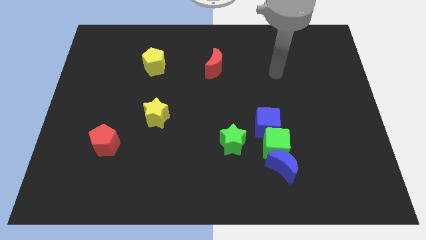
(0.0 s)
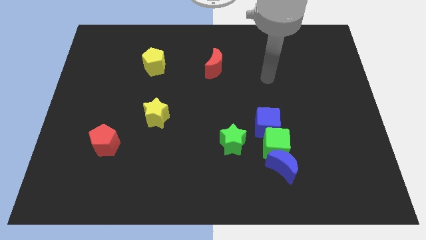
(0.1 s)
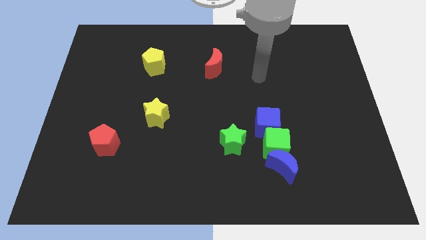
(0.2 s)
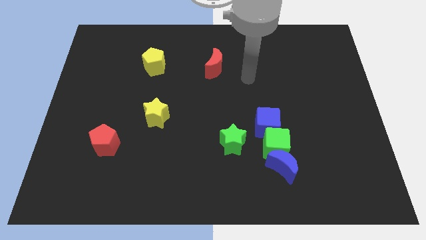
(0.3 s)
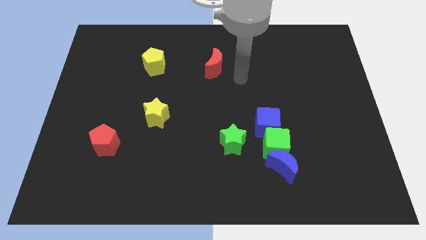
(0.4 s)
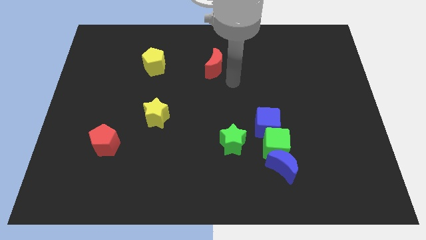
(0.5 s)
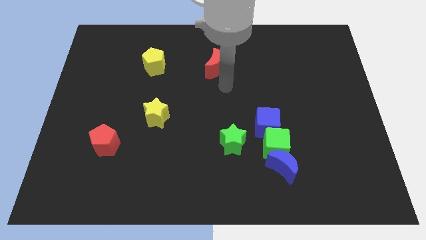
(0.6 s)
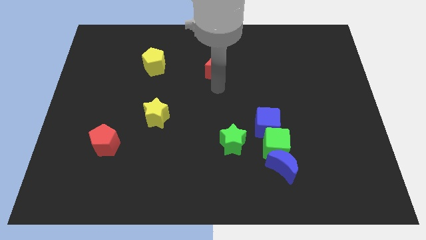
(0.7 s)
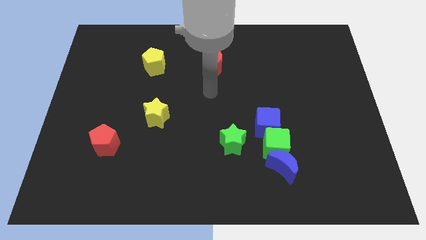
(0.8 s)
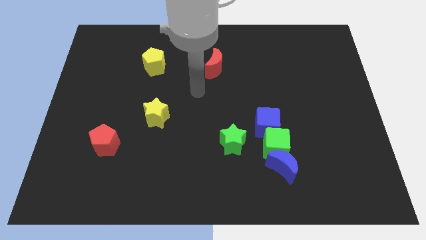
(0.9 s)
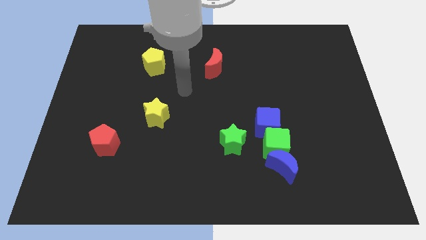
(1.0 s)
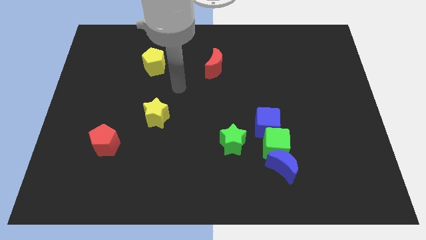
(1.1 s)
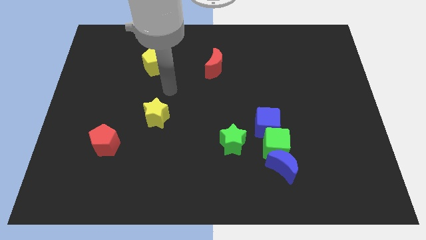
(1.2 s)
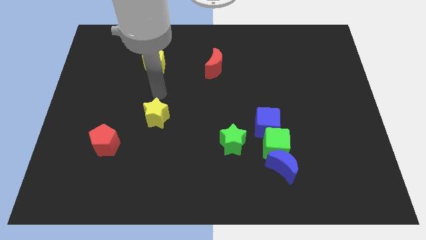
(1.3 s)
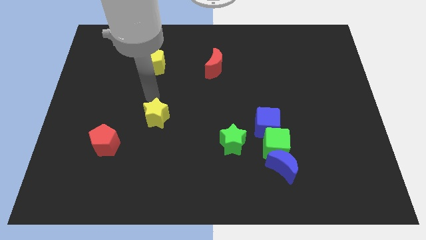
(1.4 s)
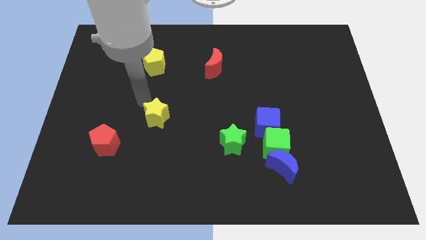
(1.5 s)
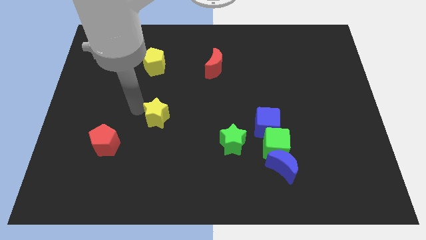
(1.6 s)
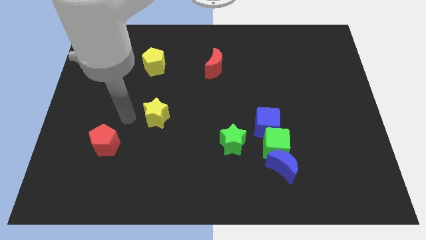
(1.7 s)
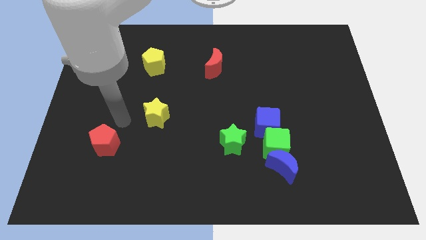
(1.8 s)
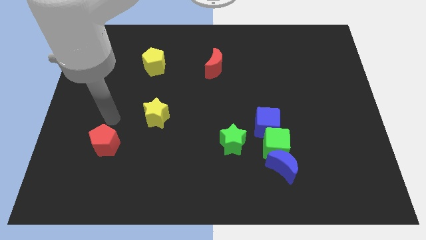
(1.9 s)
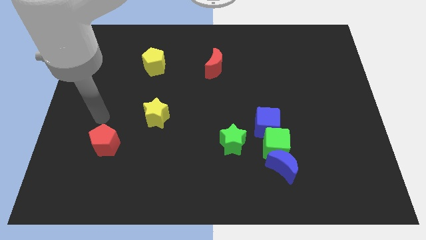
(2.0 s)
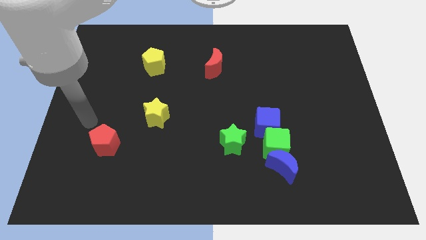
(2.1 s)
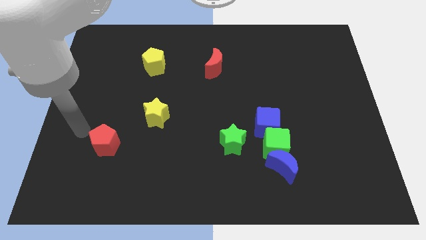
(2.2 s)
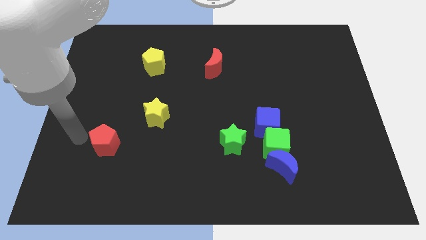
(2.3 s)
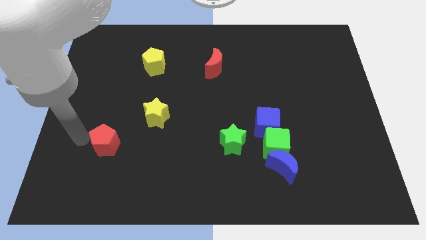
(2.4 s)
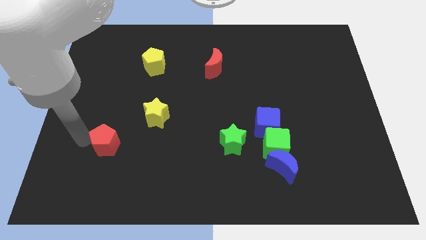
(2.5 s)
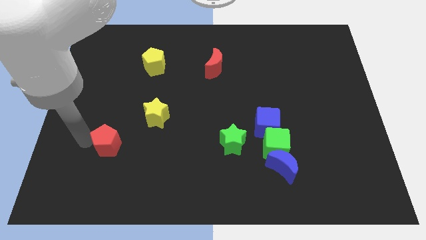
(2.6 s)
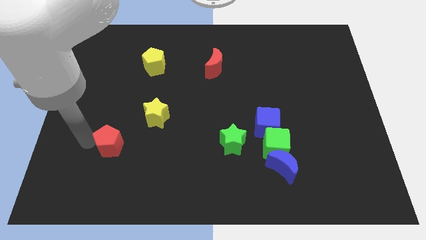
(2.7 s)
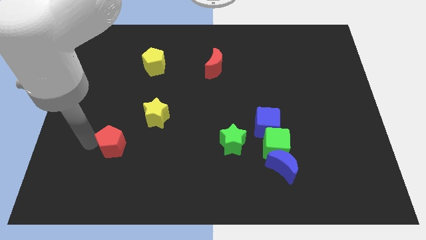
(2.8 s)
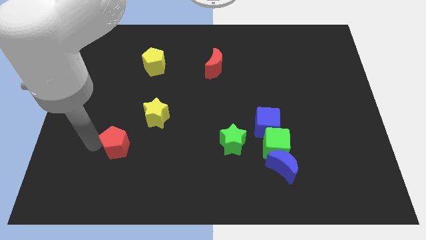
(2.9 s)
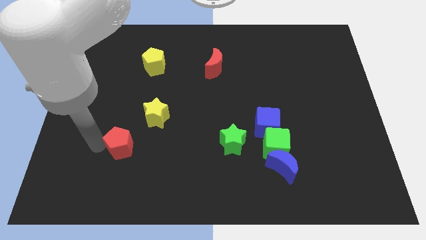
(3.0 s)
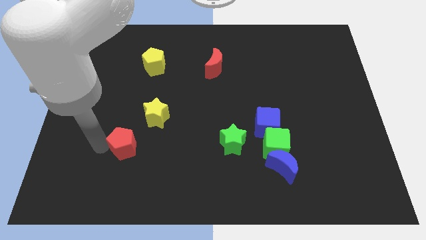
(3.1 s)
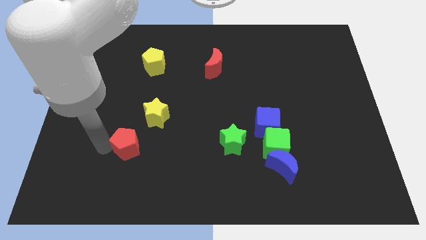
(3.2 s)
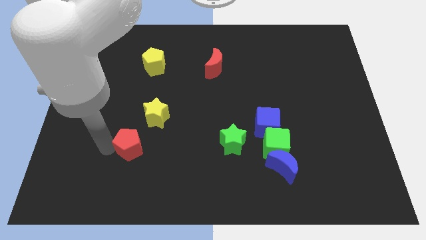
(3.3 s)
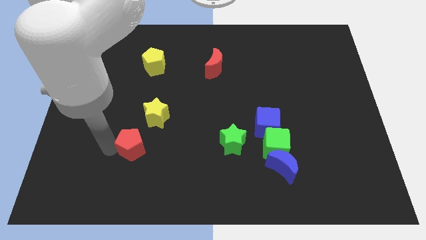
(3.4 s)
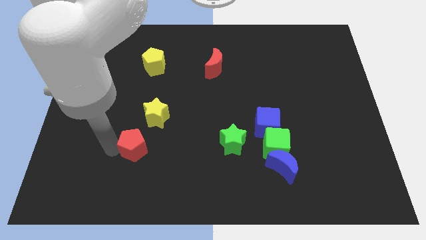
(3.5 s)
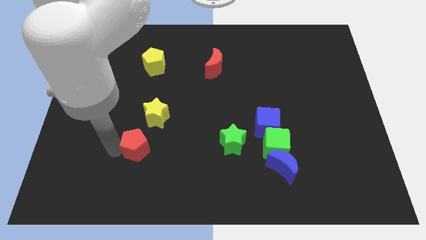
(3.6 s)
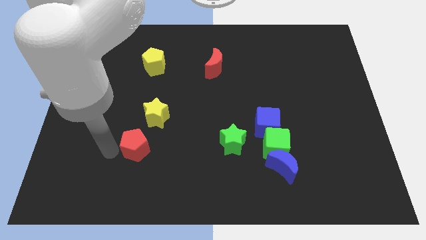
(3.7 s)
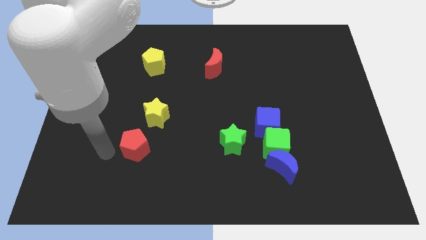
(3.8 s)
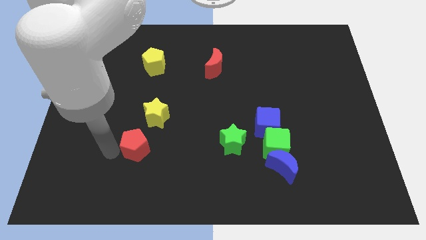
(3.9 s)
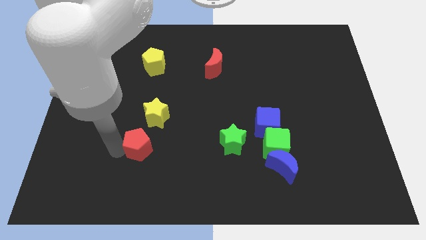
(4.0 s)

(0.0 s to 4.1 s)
slide the red pentagon right a little bit

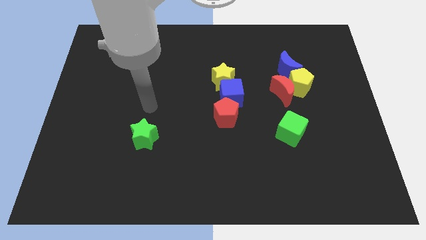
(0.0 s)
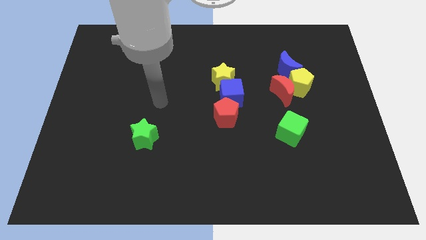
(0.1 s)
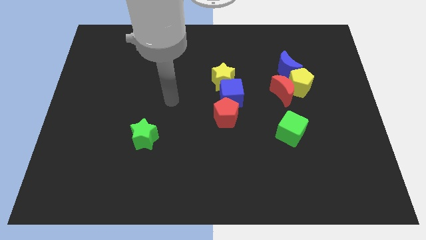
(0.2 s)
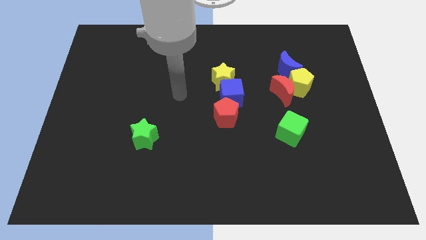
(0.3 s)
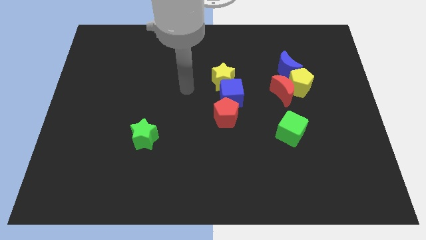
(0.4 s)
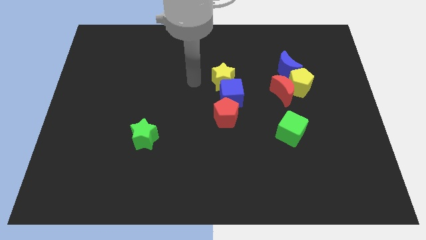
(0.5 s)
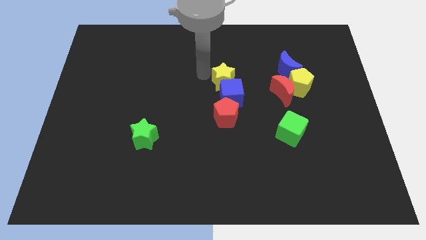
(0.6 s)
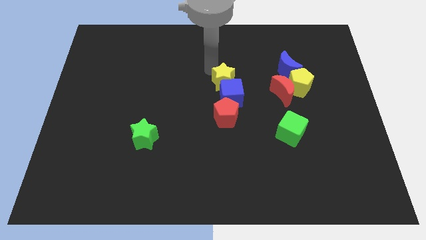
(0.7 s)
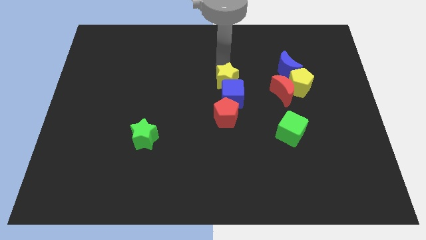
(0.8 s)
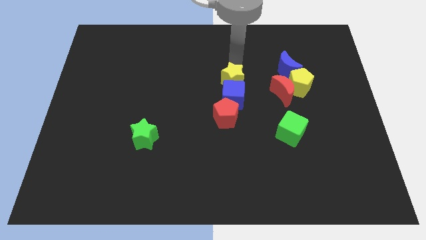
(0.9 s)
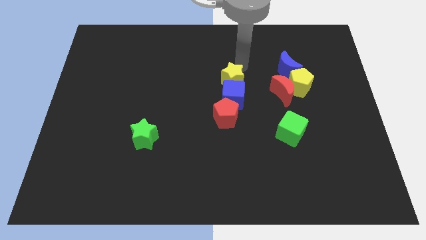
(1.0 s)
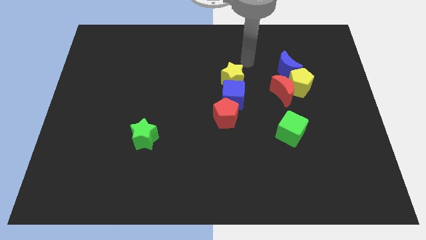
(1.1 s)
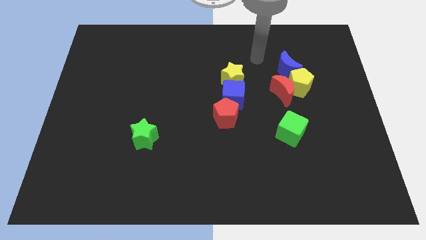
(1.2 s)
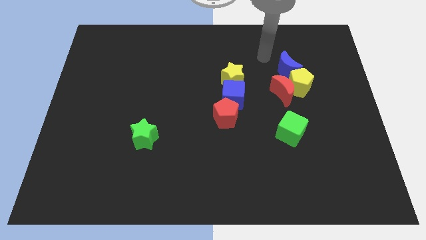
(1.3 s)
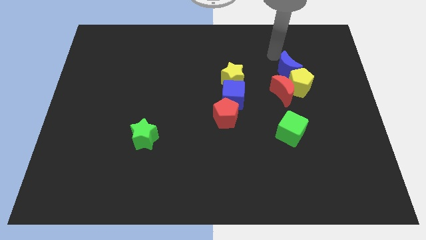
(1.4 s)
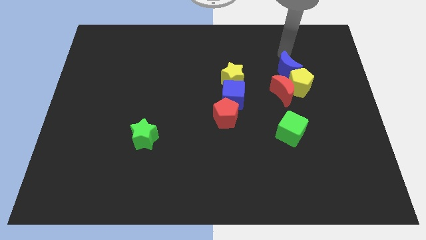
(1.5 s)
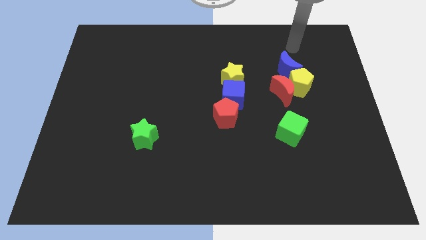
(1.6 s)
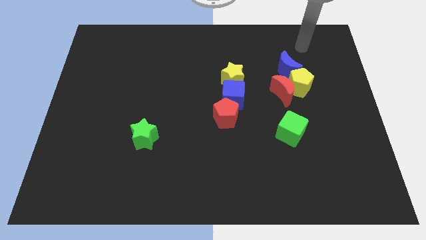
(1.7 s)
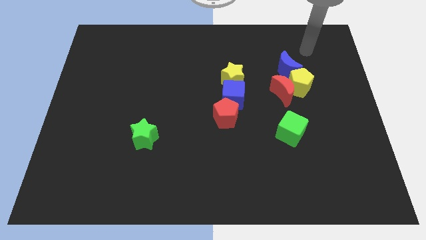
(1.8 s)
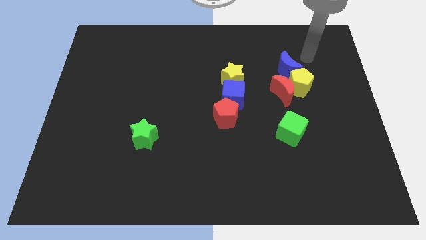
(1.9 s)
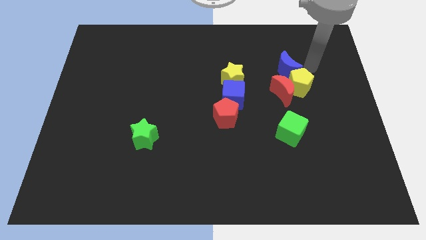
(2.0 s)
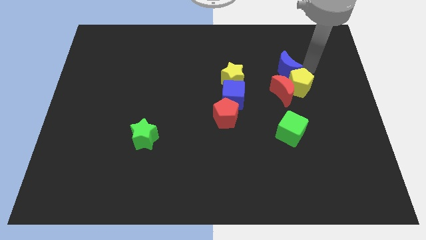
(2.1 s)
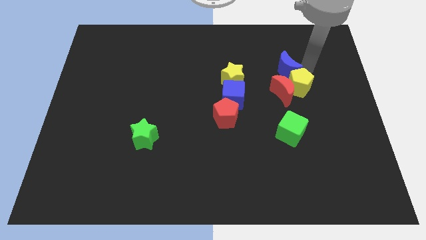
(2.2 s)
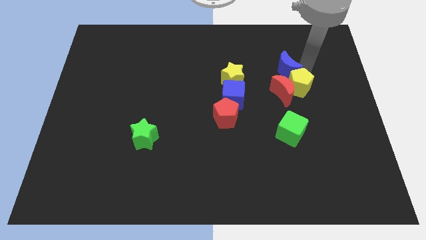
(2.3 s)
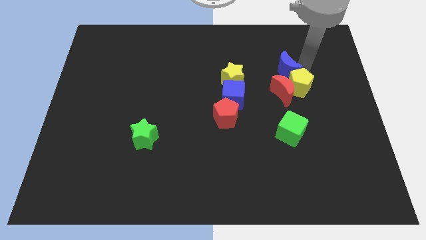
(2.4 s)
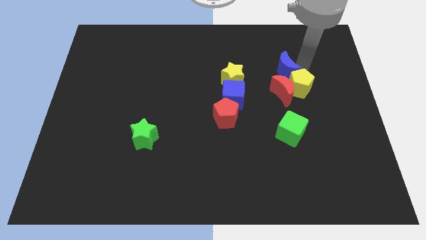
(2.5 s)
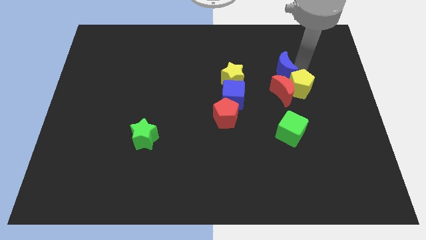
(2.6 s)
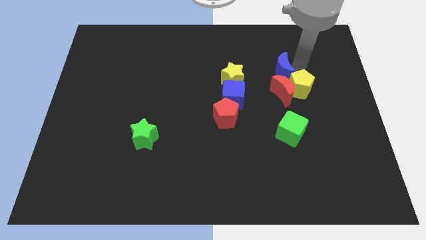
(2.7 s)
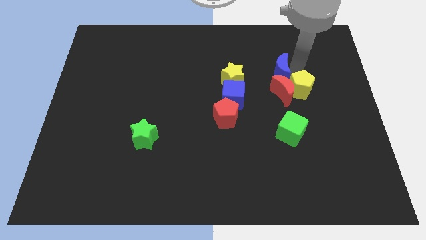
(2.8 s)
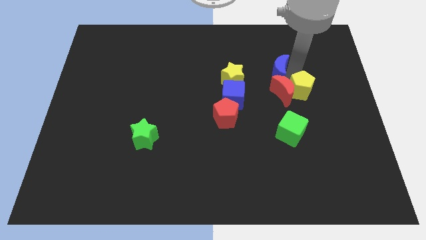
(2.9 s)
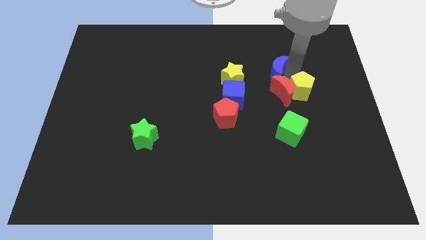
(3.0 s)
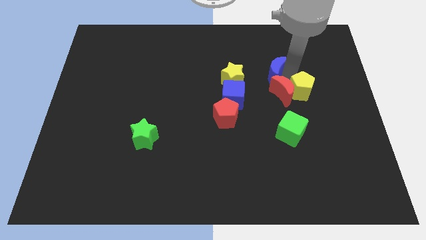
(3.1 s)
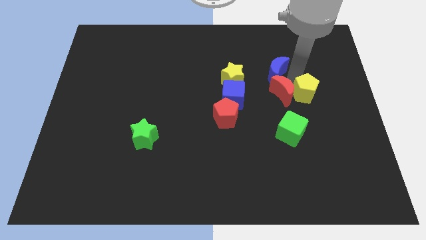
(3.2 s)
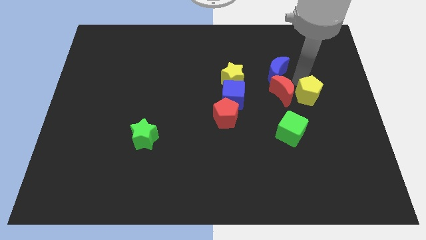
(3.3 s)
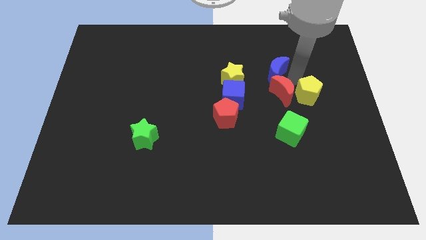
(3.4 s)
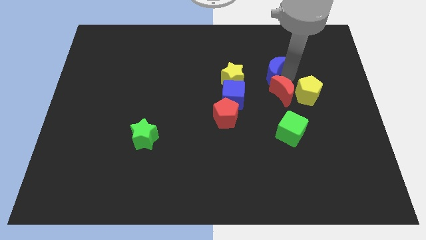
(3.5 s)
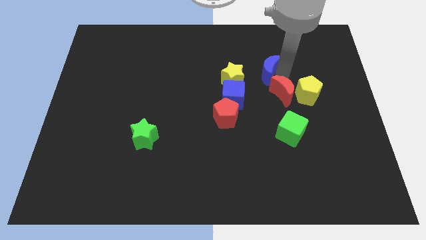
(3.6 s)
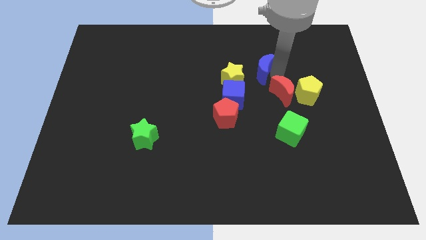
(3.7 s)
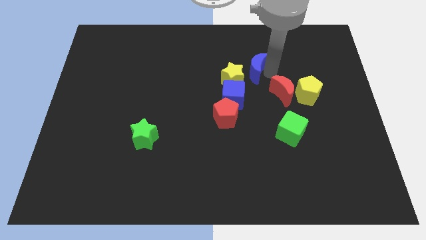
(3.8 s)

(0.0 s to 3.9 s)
move the blue moon a little left

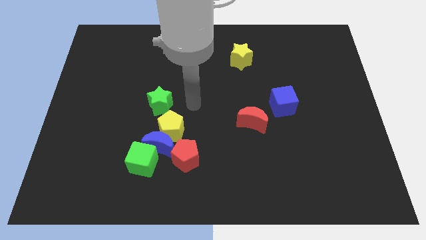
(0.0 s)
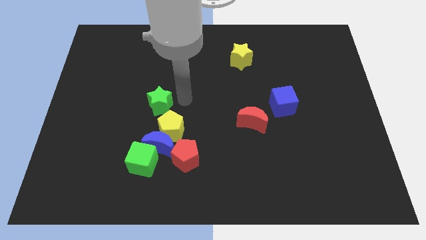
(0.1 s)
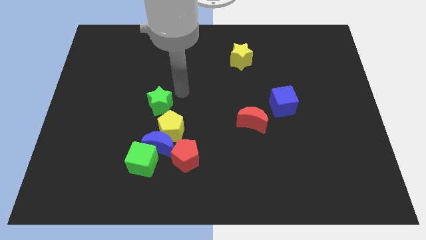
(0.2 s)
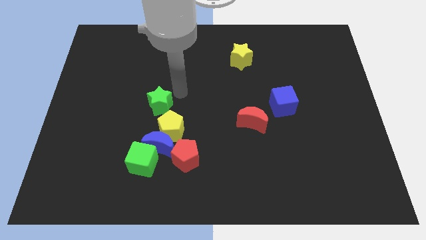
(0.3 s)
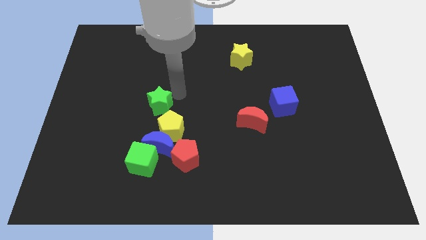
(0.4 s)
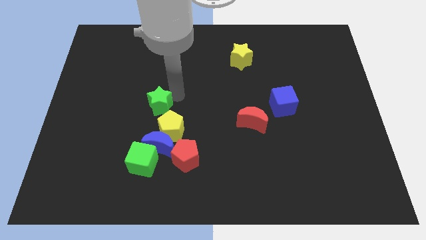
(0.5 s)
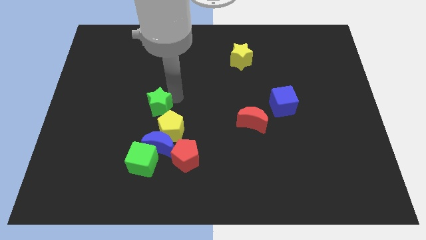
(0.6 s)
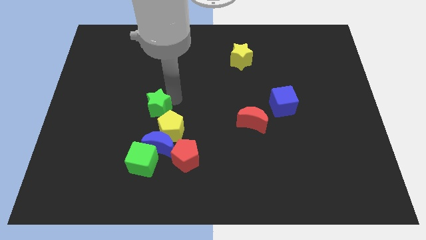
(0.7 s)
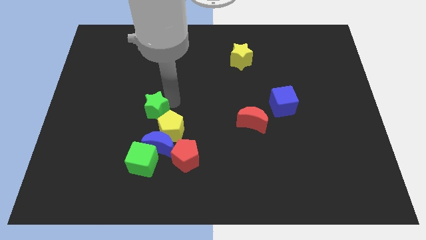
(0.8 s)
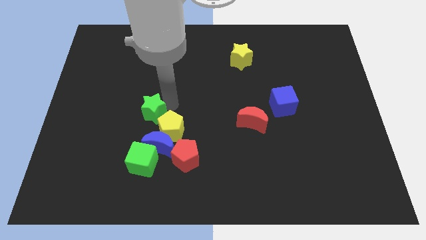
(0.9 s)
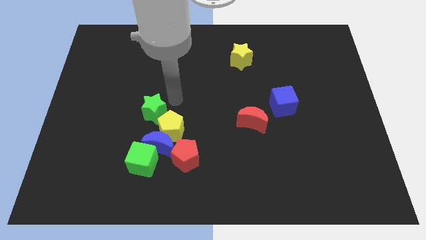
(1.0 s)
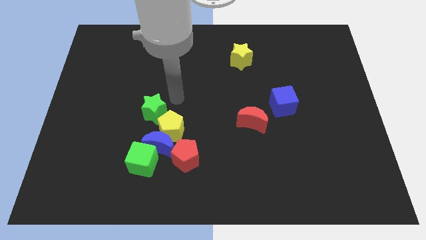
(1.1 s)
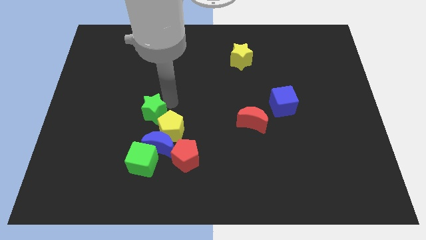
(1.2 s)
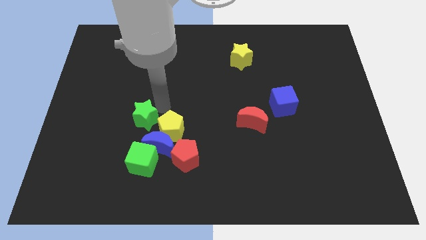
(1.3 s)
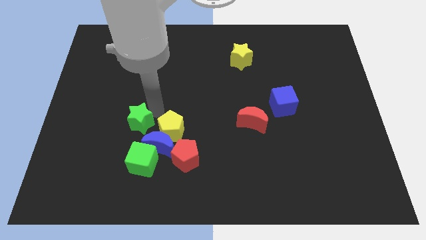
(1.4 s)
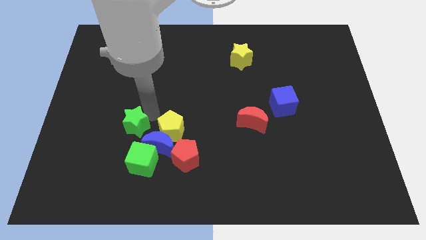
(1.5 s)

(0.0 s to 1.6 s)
push the green star downwards and left a bit
